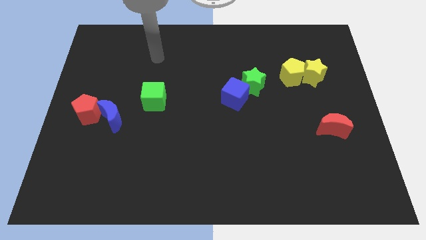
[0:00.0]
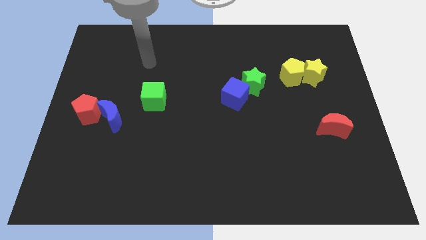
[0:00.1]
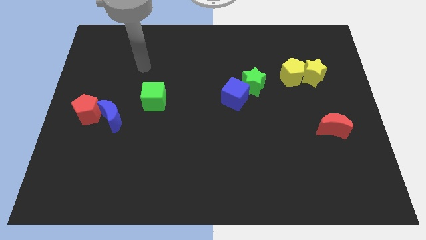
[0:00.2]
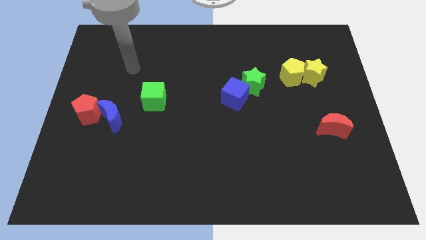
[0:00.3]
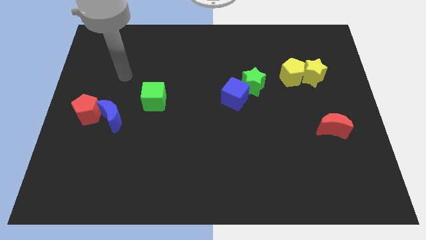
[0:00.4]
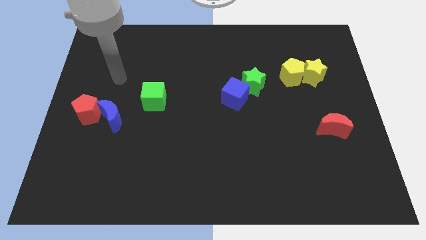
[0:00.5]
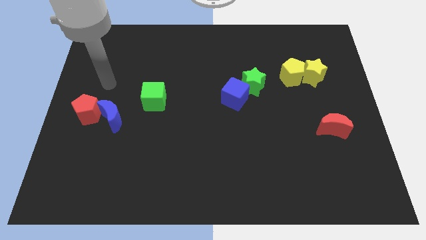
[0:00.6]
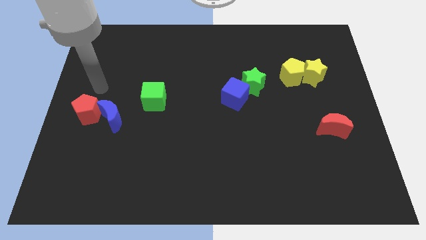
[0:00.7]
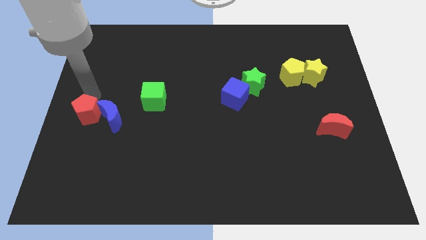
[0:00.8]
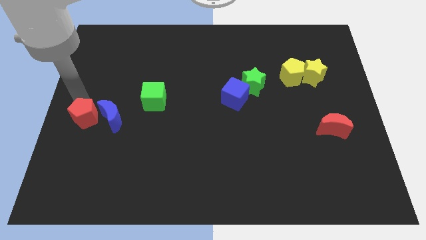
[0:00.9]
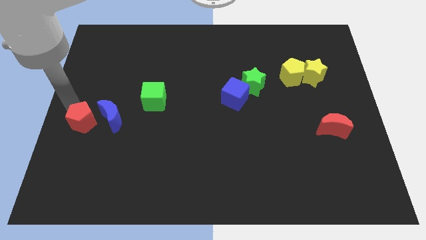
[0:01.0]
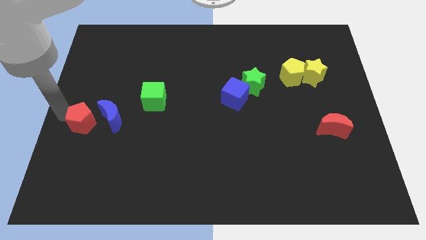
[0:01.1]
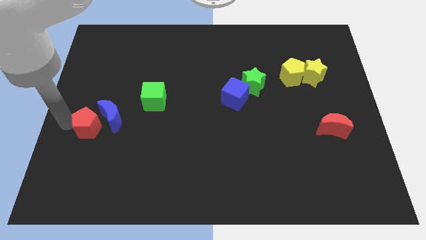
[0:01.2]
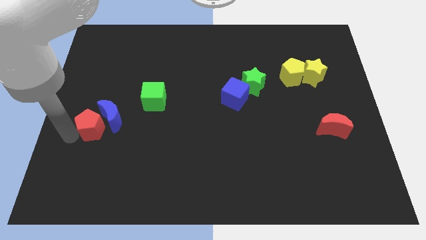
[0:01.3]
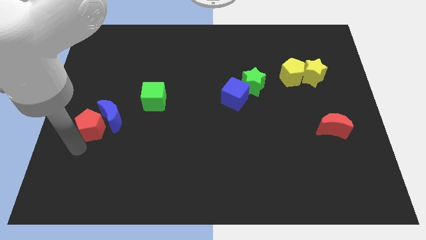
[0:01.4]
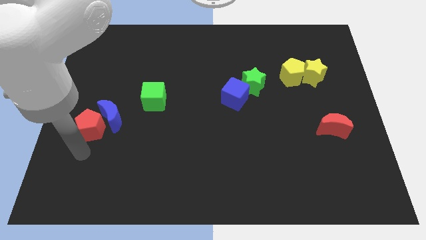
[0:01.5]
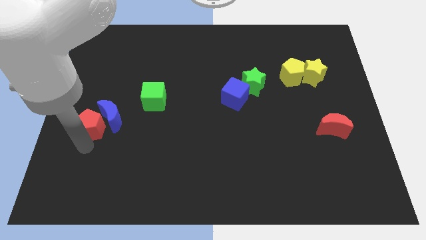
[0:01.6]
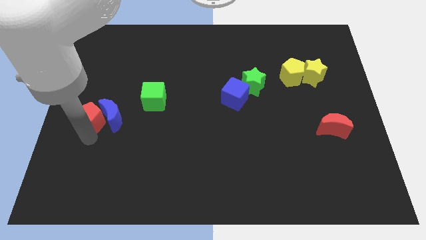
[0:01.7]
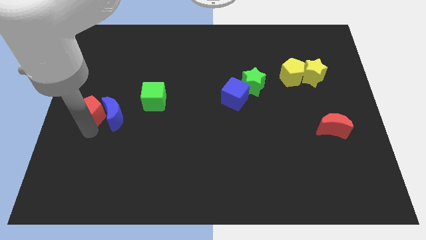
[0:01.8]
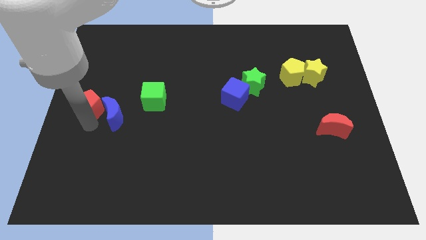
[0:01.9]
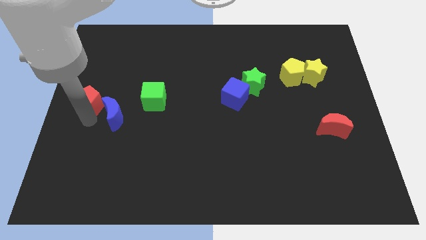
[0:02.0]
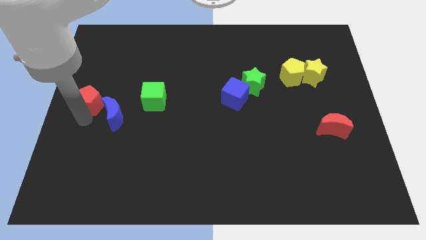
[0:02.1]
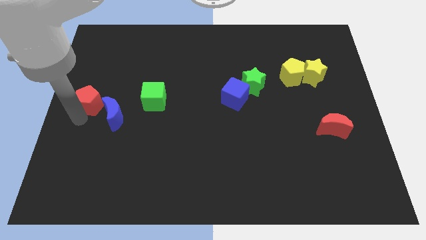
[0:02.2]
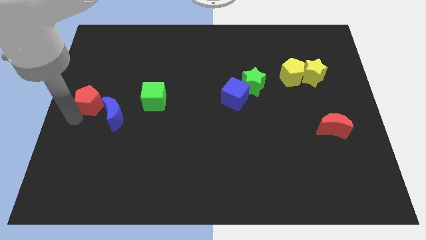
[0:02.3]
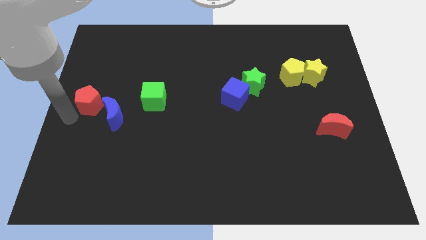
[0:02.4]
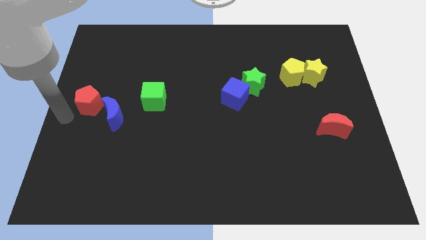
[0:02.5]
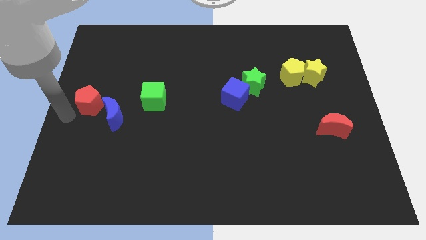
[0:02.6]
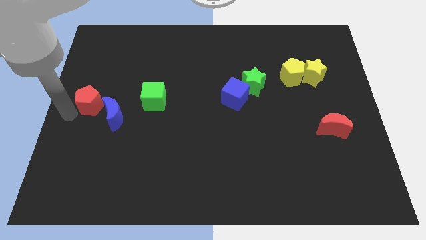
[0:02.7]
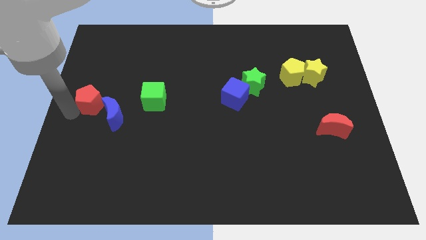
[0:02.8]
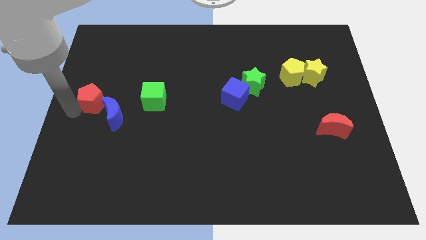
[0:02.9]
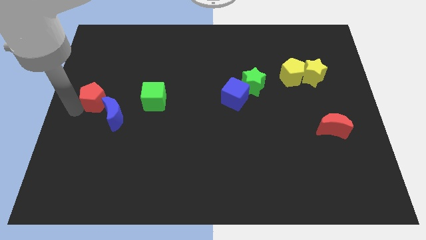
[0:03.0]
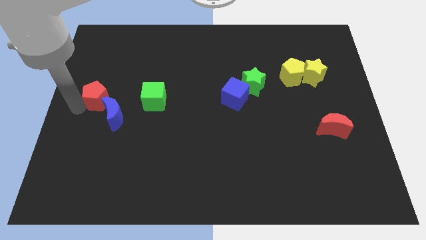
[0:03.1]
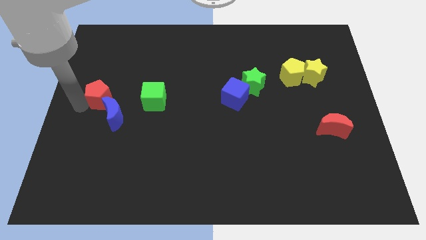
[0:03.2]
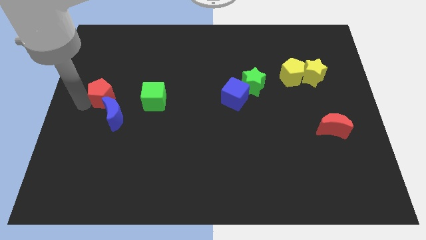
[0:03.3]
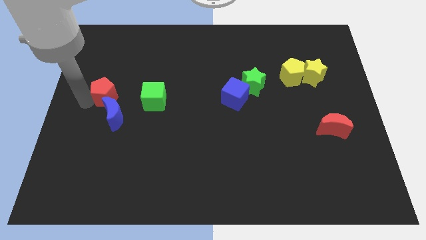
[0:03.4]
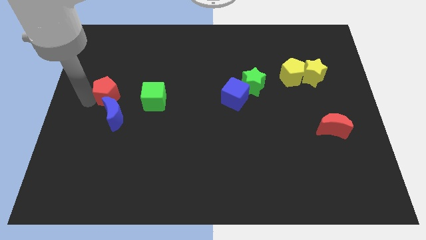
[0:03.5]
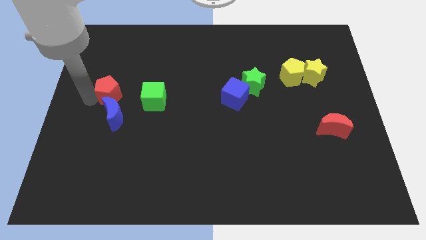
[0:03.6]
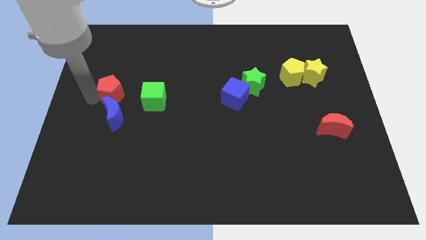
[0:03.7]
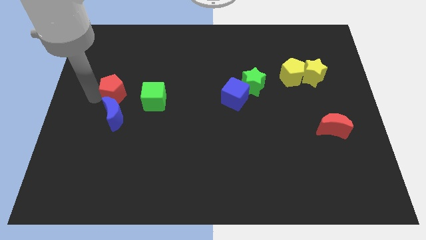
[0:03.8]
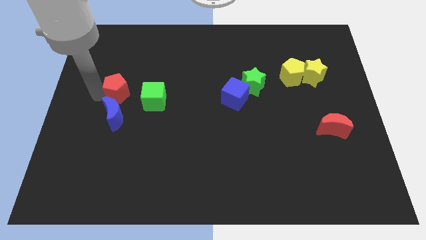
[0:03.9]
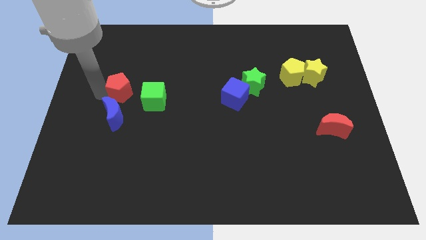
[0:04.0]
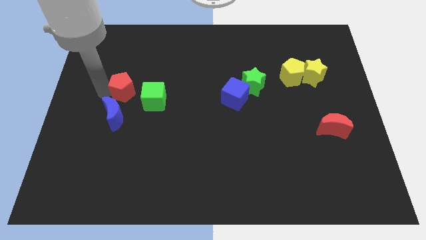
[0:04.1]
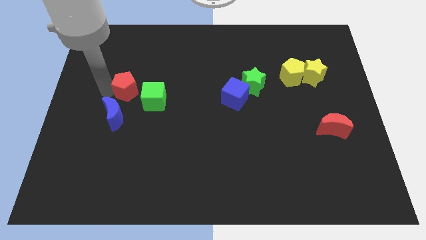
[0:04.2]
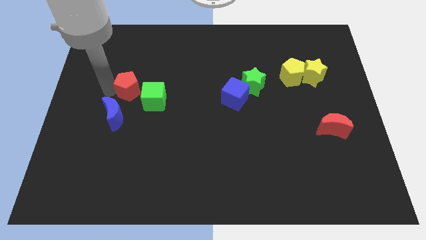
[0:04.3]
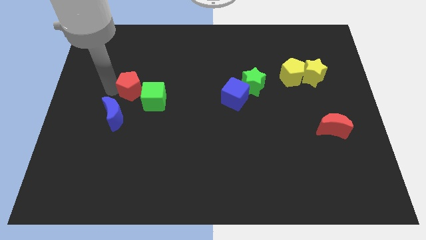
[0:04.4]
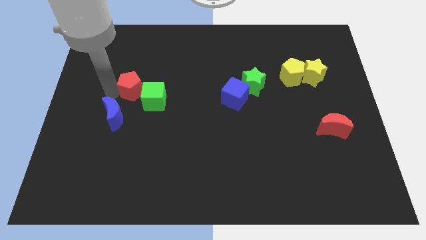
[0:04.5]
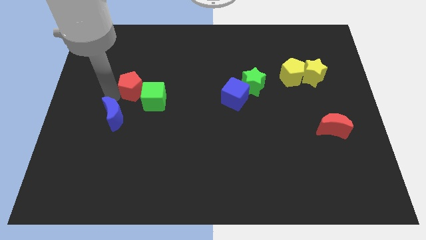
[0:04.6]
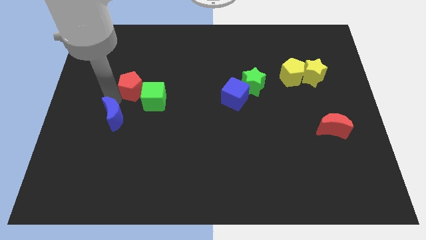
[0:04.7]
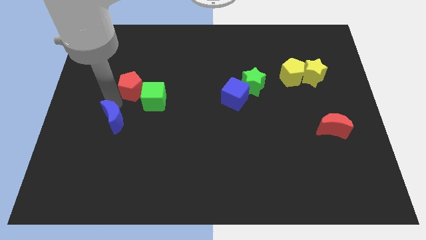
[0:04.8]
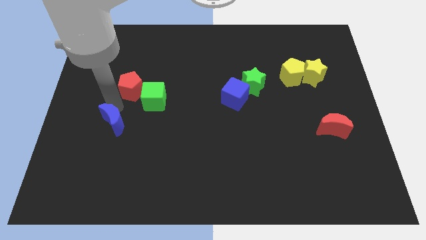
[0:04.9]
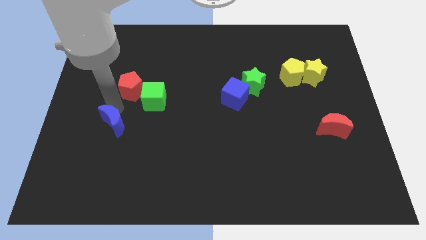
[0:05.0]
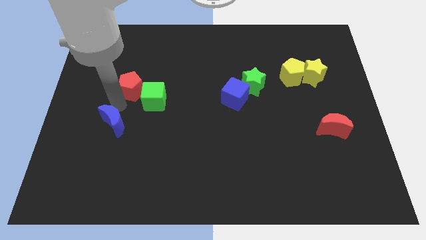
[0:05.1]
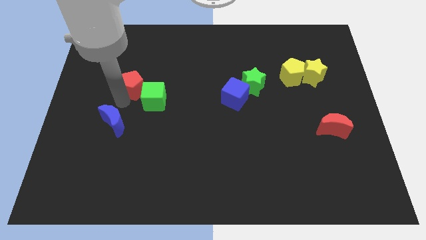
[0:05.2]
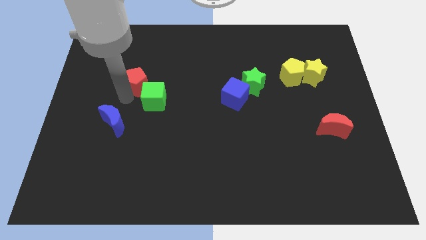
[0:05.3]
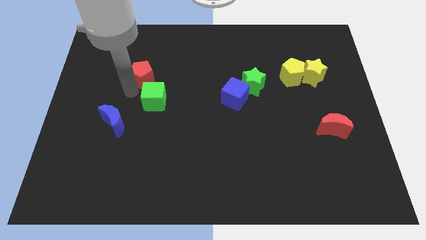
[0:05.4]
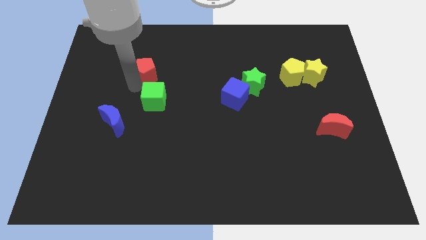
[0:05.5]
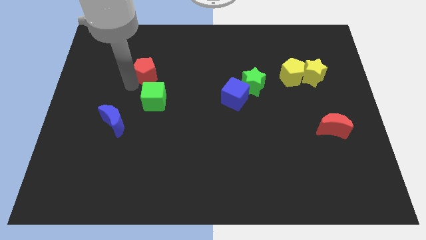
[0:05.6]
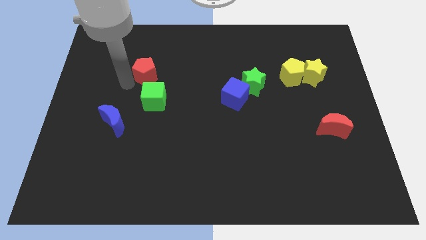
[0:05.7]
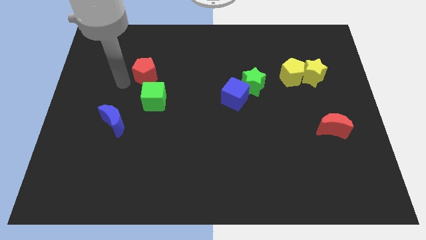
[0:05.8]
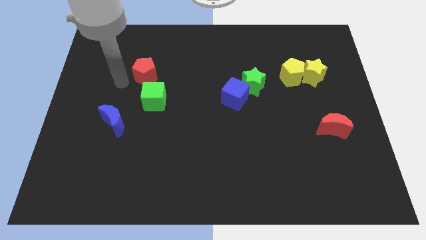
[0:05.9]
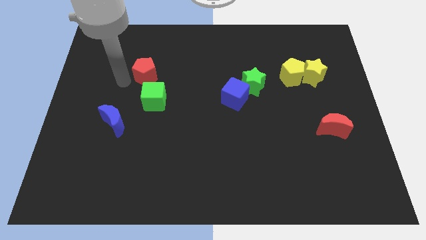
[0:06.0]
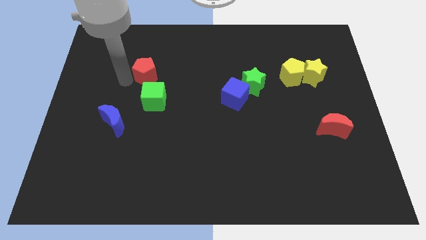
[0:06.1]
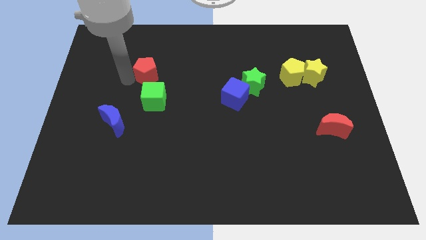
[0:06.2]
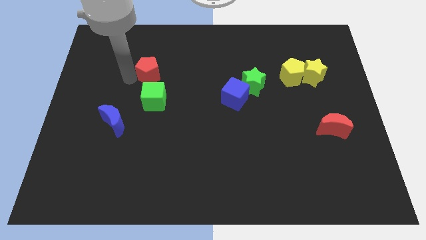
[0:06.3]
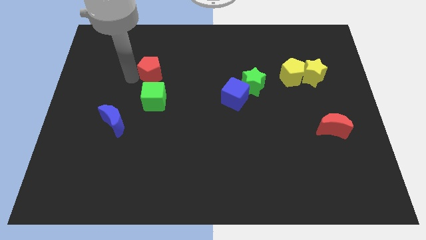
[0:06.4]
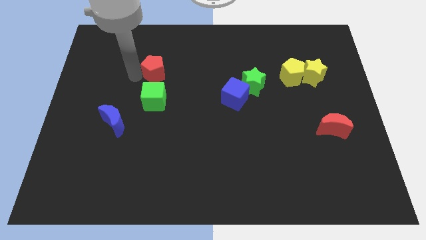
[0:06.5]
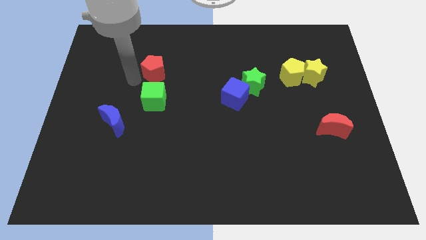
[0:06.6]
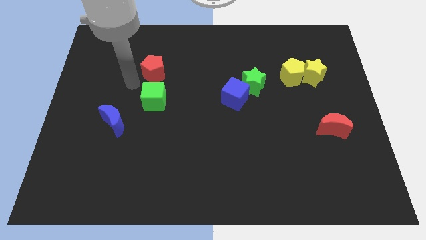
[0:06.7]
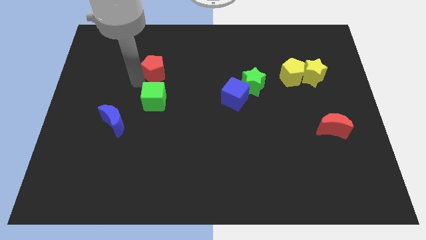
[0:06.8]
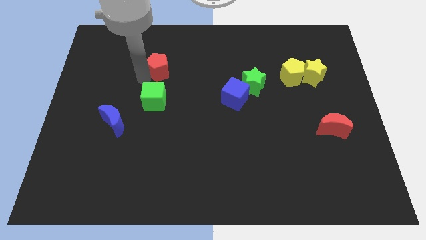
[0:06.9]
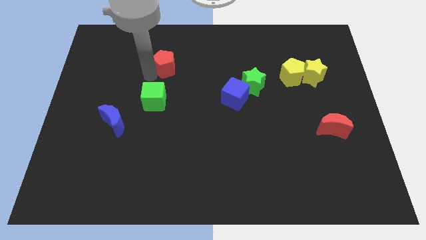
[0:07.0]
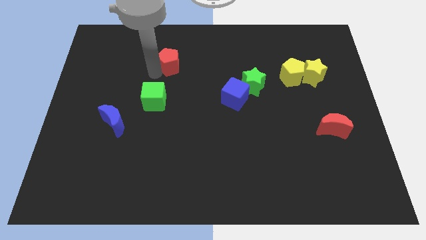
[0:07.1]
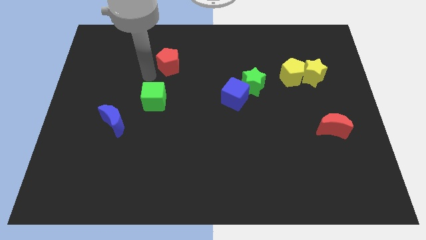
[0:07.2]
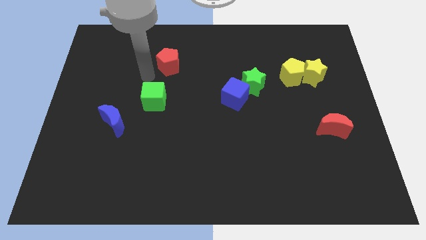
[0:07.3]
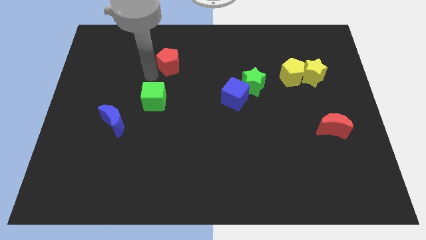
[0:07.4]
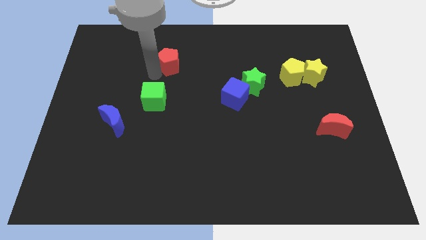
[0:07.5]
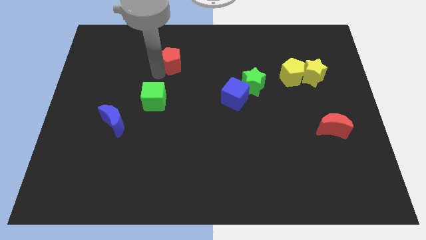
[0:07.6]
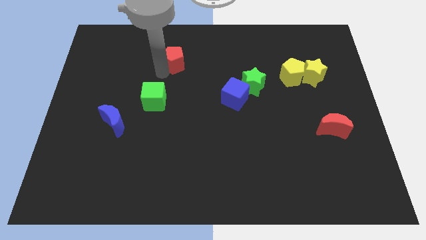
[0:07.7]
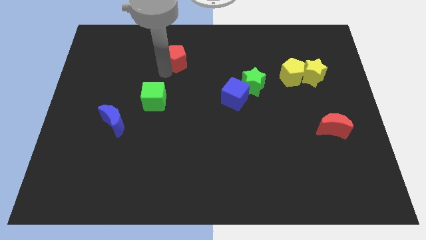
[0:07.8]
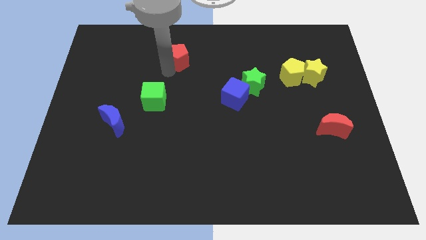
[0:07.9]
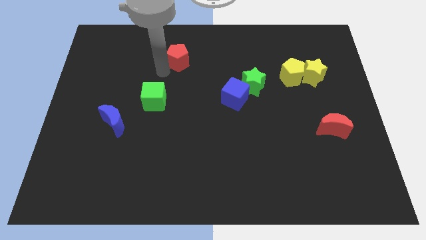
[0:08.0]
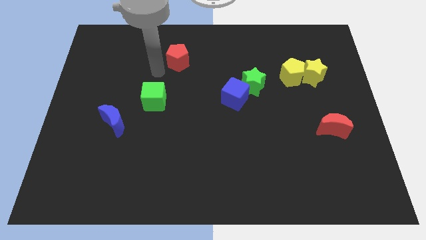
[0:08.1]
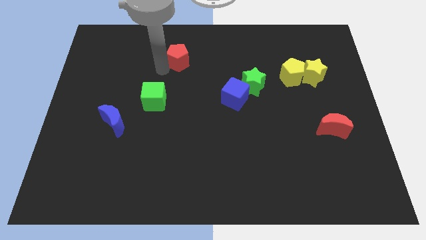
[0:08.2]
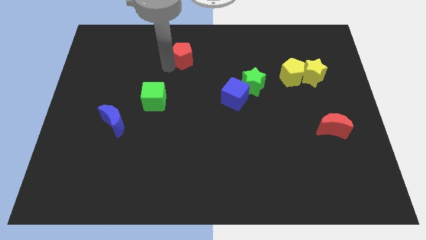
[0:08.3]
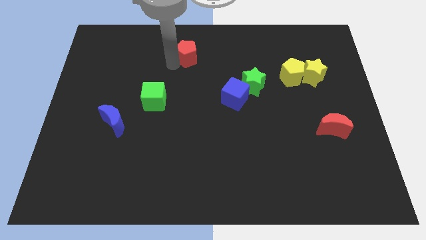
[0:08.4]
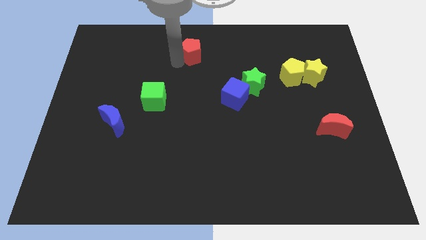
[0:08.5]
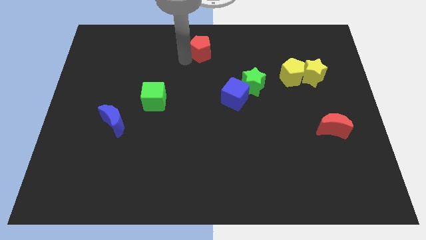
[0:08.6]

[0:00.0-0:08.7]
push the red pentagon to the top
